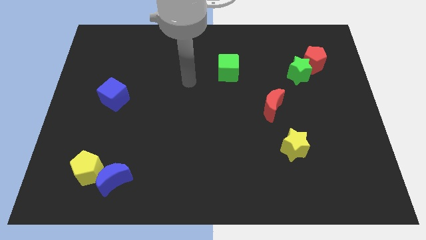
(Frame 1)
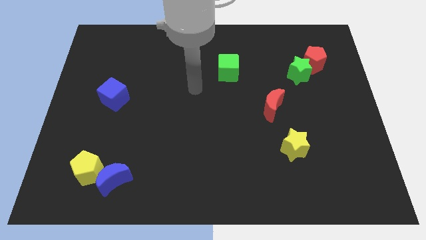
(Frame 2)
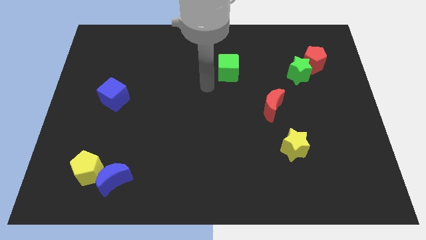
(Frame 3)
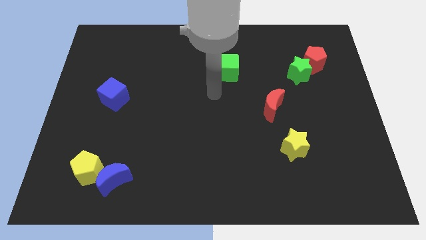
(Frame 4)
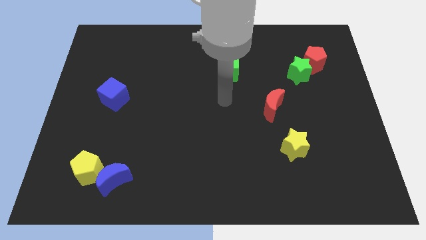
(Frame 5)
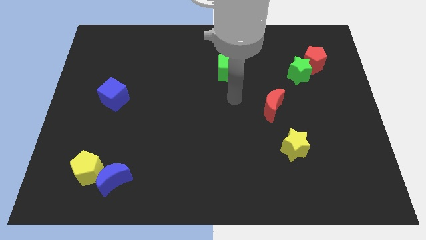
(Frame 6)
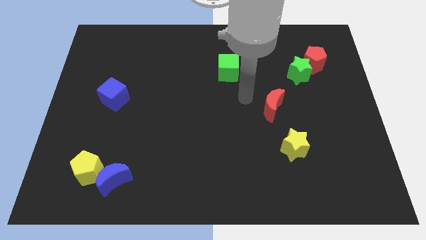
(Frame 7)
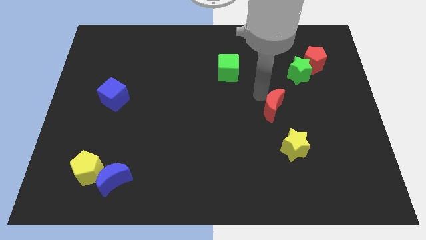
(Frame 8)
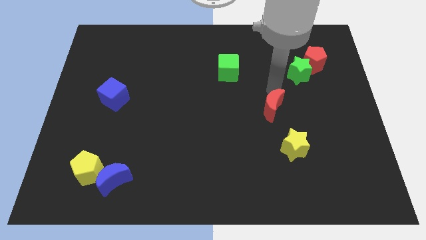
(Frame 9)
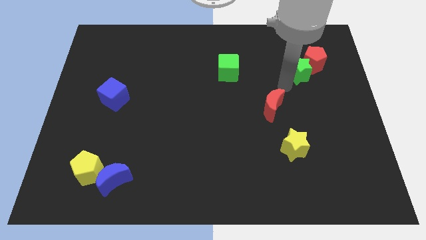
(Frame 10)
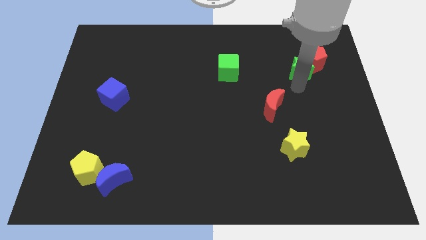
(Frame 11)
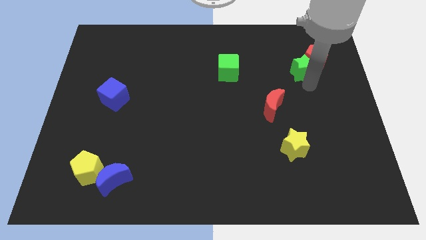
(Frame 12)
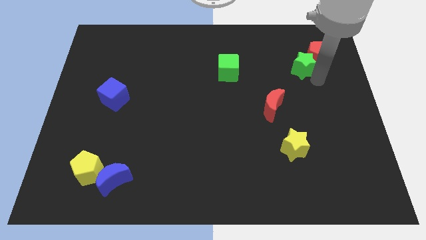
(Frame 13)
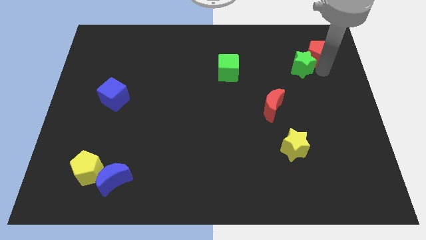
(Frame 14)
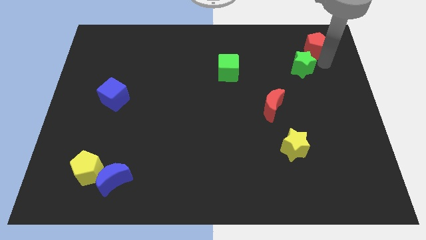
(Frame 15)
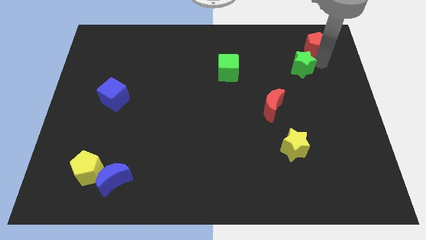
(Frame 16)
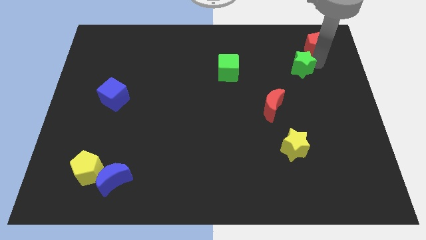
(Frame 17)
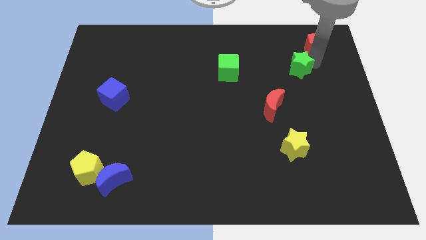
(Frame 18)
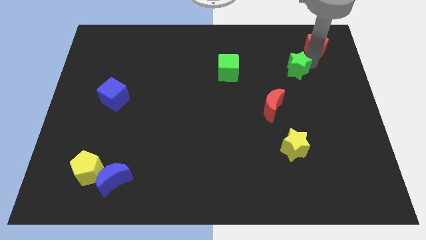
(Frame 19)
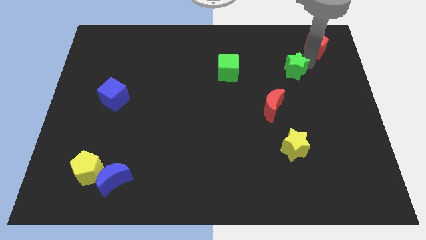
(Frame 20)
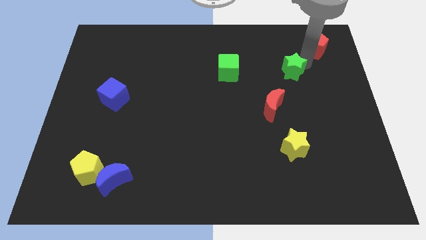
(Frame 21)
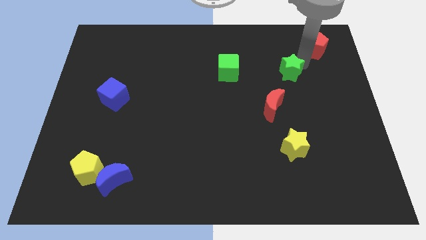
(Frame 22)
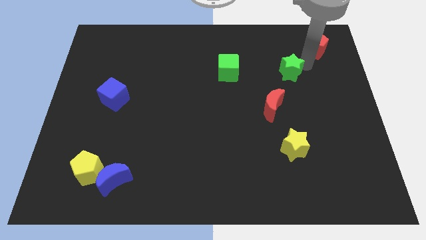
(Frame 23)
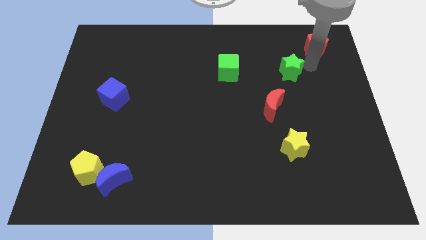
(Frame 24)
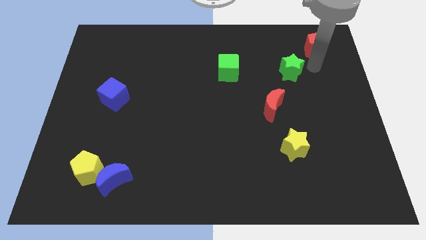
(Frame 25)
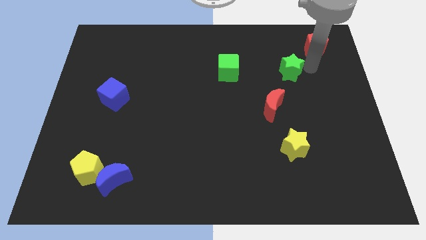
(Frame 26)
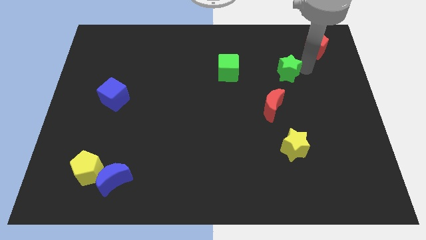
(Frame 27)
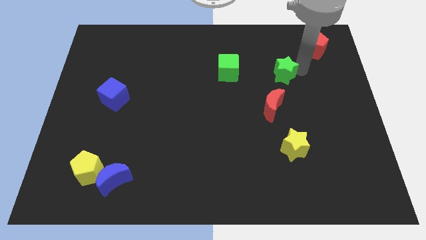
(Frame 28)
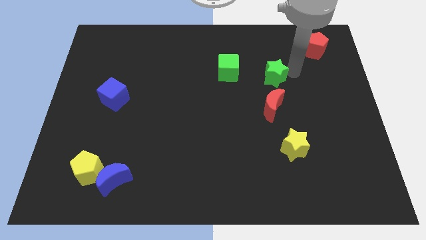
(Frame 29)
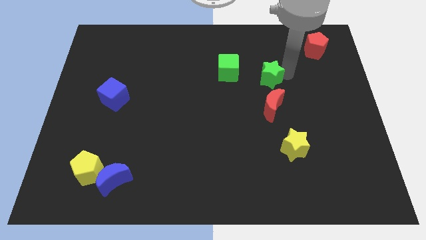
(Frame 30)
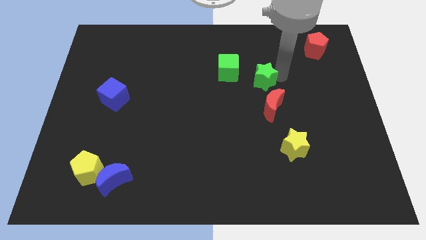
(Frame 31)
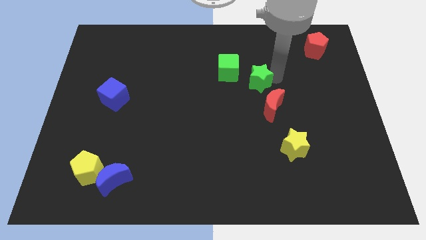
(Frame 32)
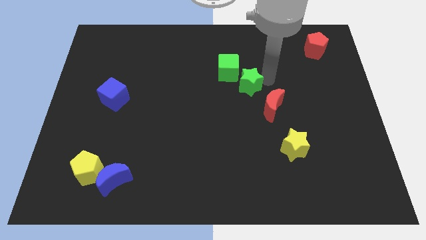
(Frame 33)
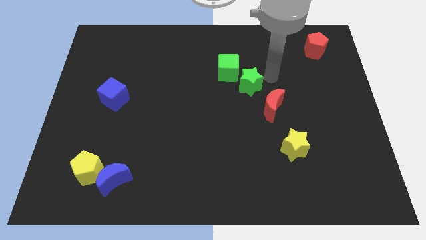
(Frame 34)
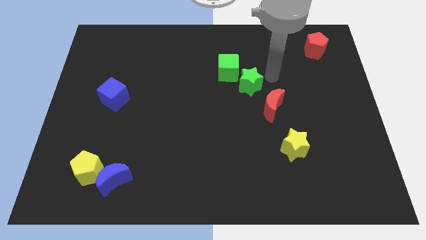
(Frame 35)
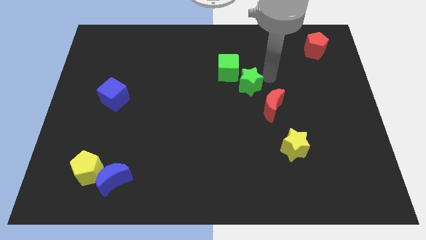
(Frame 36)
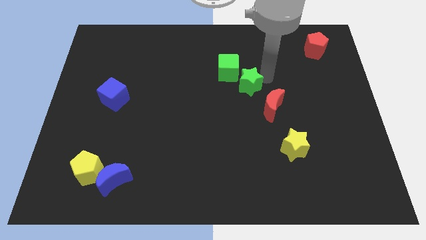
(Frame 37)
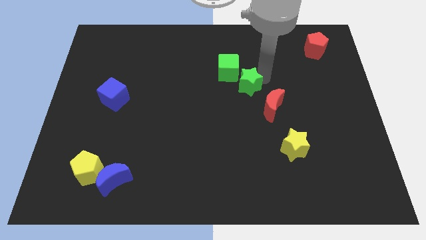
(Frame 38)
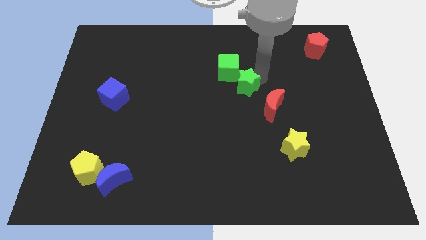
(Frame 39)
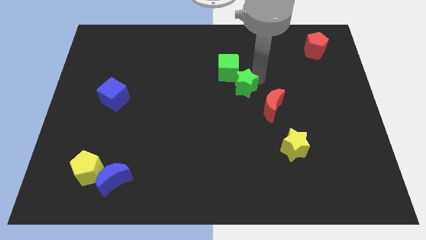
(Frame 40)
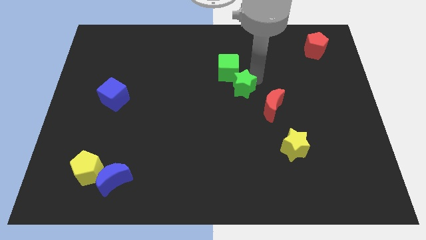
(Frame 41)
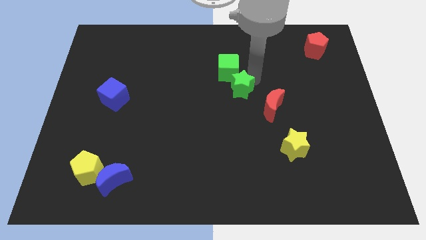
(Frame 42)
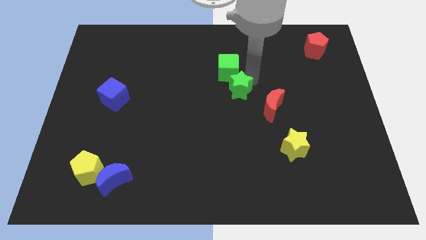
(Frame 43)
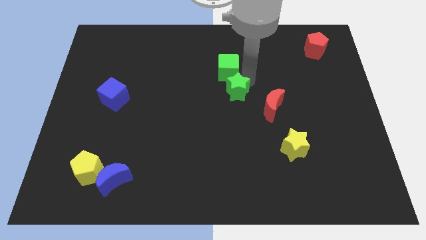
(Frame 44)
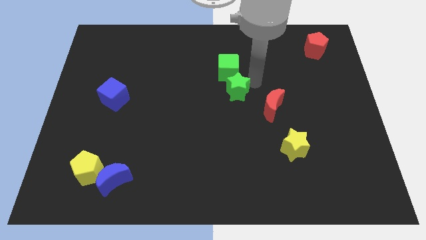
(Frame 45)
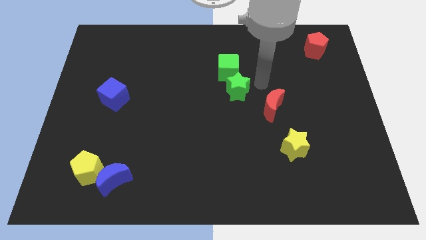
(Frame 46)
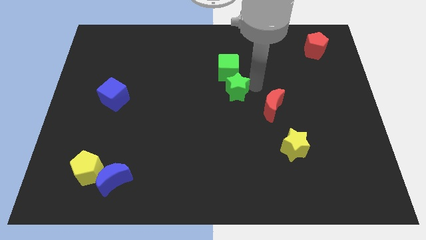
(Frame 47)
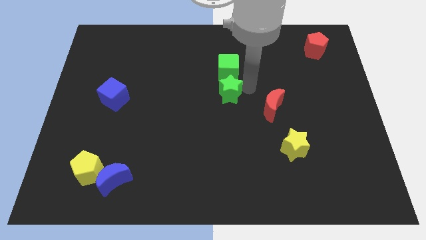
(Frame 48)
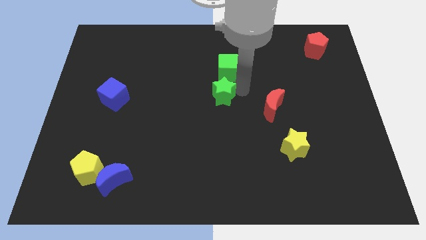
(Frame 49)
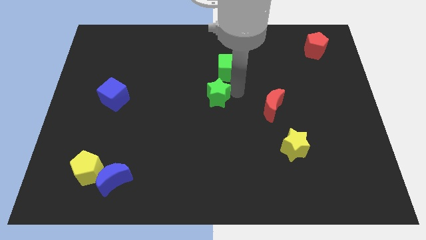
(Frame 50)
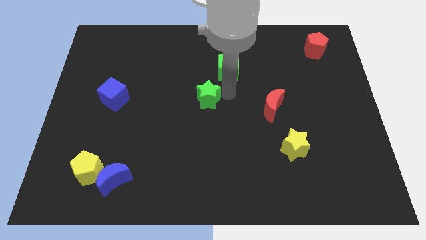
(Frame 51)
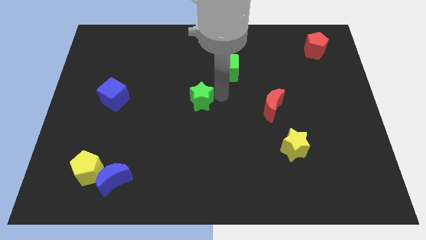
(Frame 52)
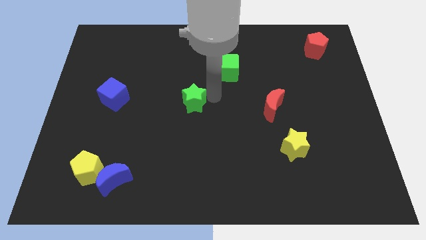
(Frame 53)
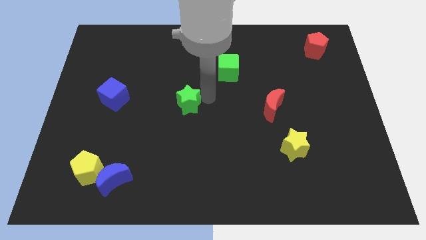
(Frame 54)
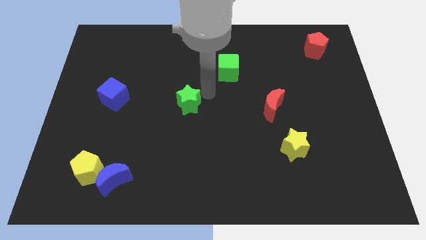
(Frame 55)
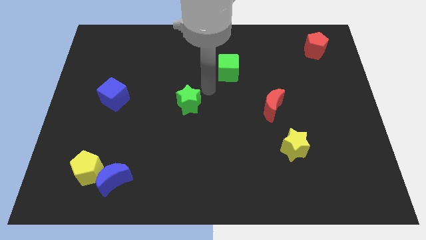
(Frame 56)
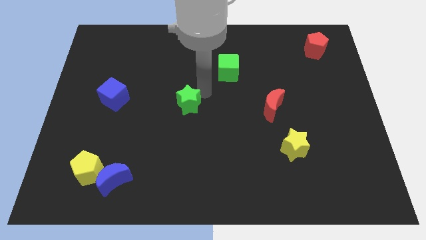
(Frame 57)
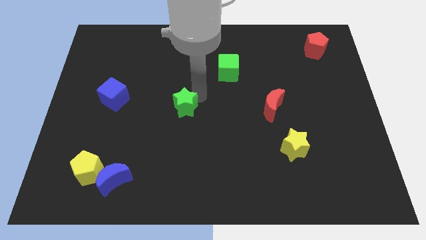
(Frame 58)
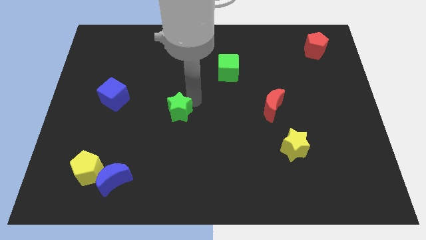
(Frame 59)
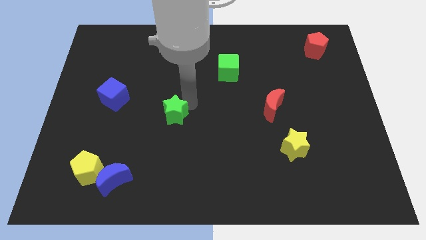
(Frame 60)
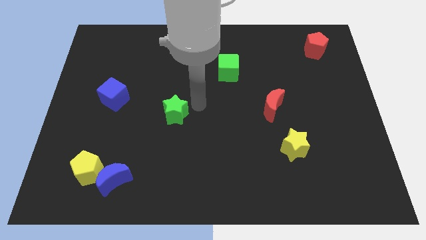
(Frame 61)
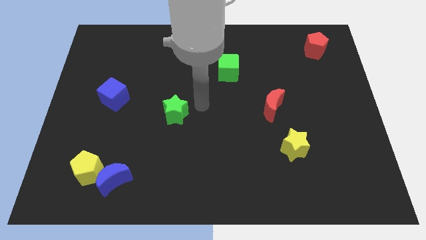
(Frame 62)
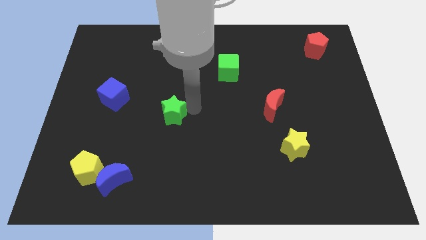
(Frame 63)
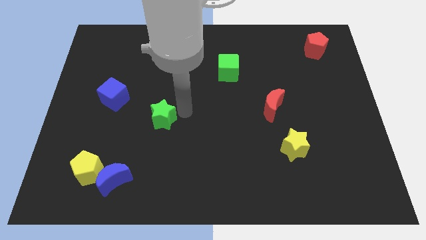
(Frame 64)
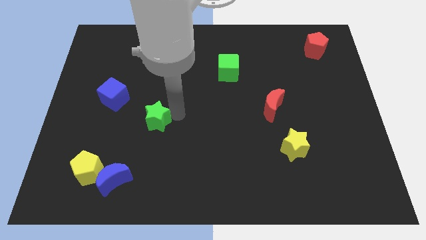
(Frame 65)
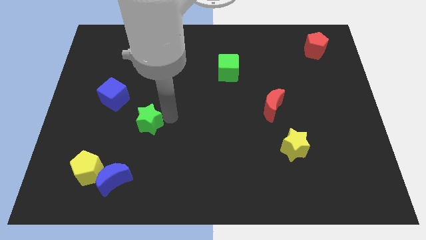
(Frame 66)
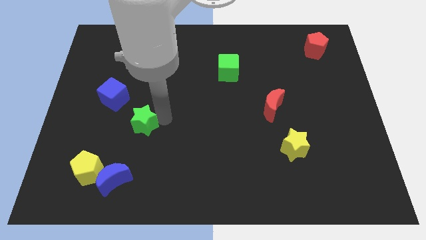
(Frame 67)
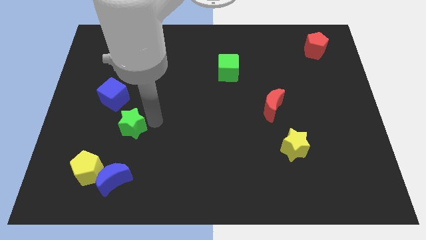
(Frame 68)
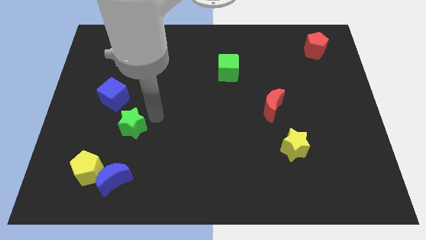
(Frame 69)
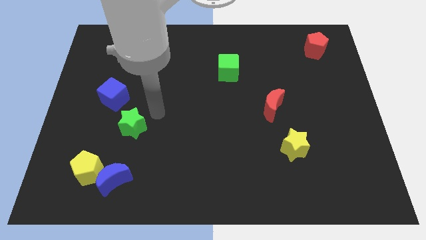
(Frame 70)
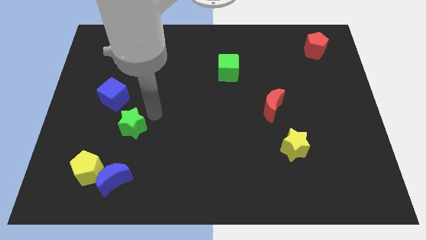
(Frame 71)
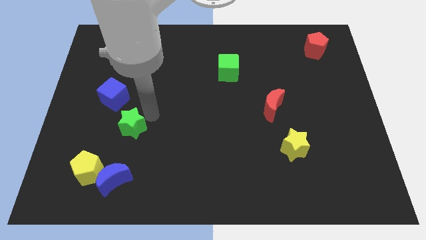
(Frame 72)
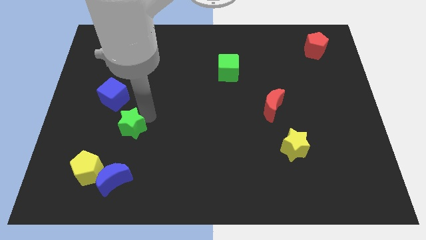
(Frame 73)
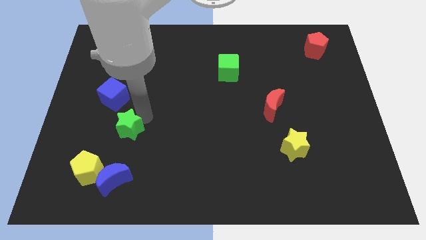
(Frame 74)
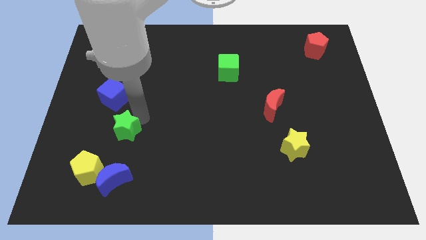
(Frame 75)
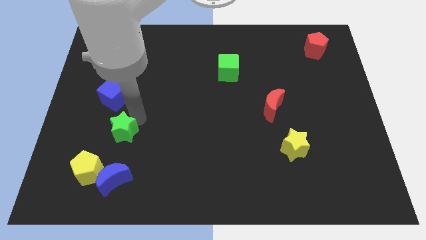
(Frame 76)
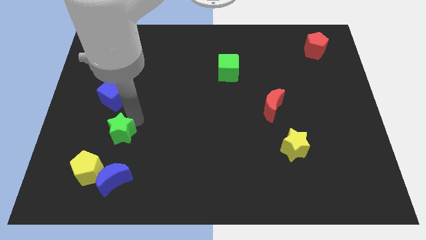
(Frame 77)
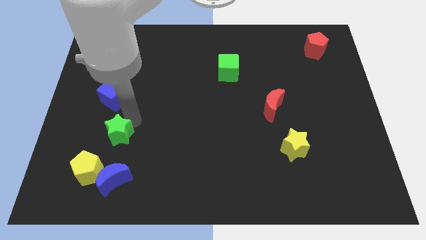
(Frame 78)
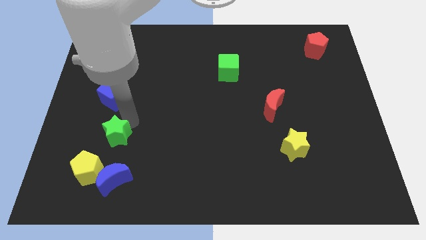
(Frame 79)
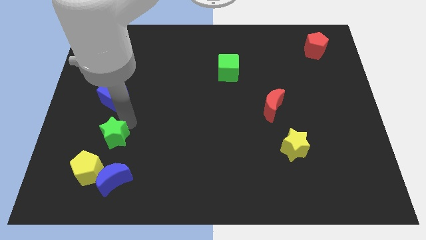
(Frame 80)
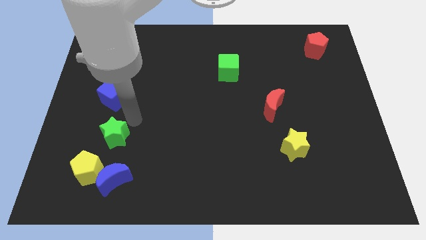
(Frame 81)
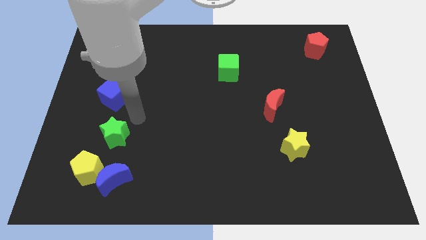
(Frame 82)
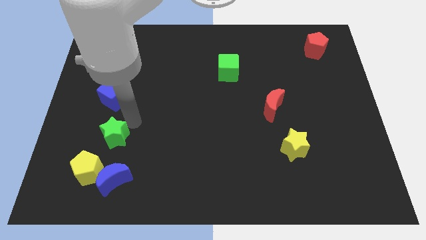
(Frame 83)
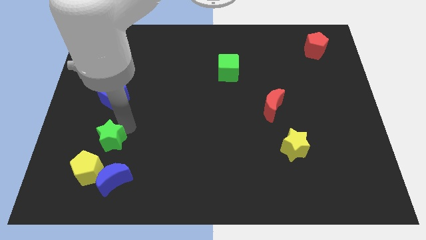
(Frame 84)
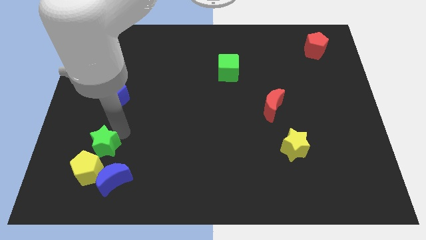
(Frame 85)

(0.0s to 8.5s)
slide the green star diagonally up and to the left of the blue moon
